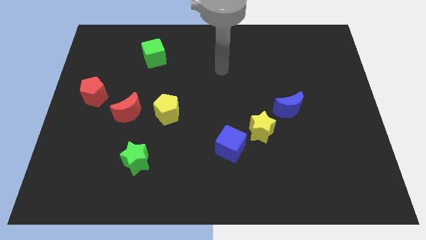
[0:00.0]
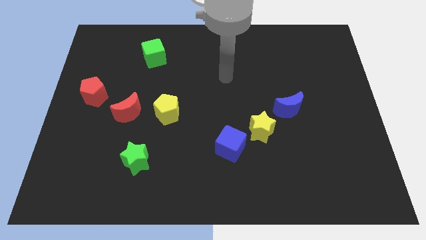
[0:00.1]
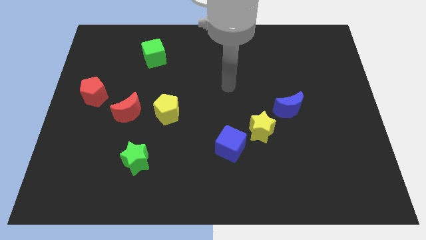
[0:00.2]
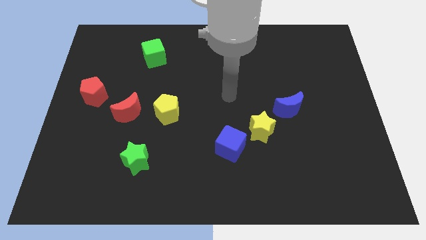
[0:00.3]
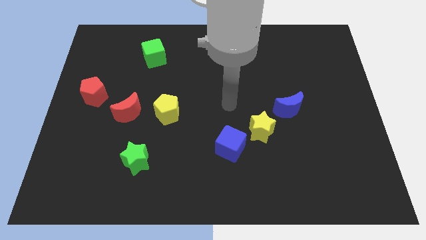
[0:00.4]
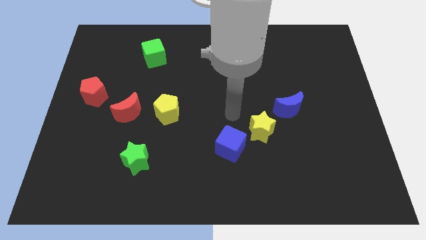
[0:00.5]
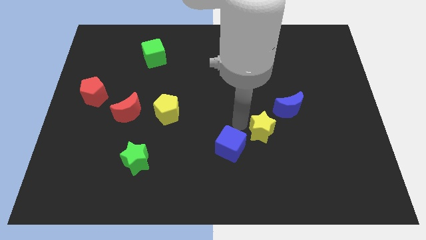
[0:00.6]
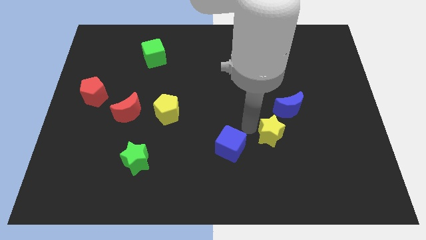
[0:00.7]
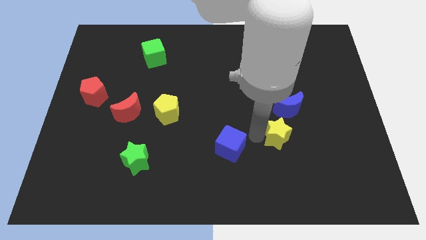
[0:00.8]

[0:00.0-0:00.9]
pull the blue cube apart from the yellow star

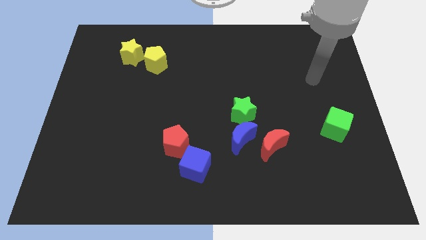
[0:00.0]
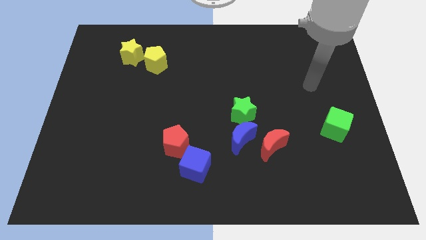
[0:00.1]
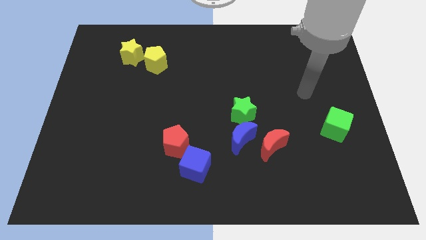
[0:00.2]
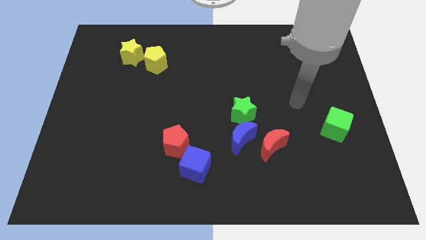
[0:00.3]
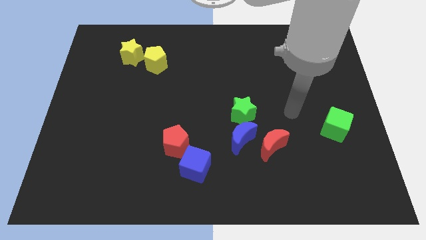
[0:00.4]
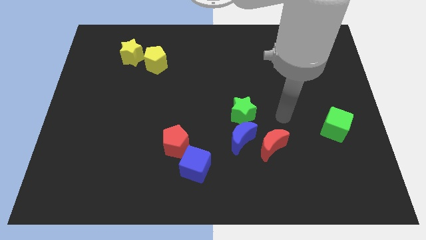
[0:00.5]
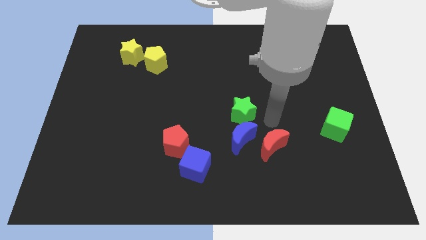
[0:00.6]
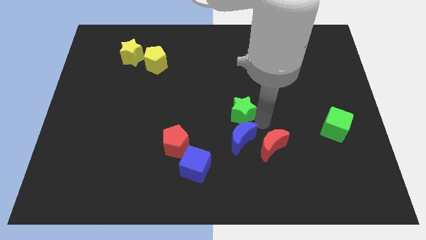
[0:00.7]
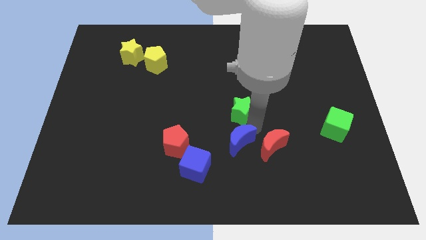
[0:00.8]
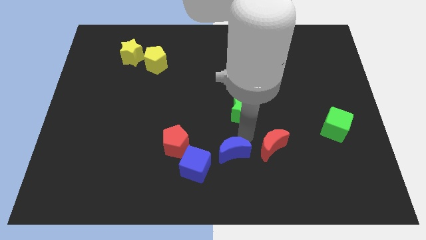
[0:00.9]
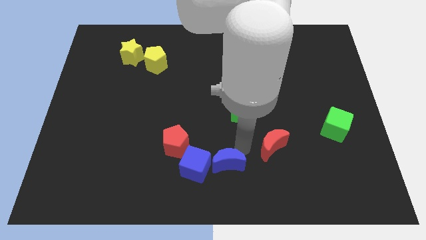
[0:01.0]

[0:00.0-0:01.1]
move the red moon away from the blue moon

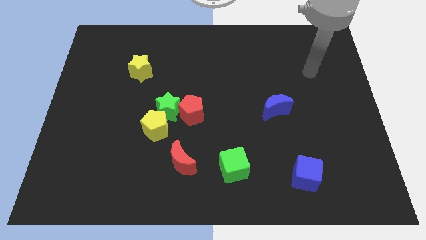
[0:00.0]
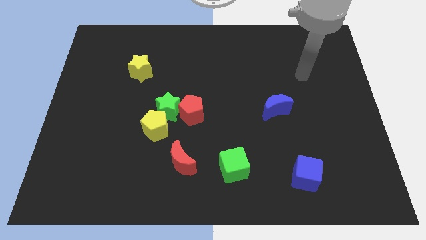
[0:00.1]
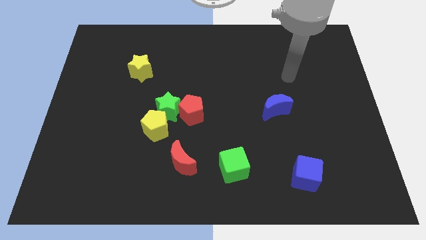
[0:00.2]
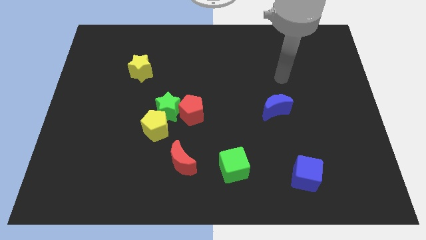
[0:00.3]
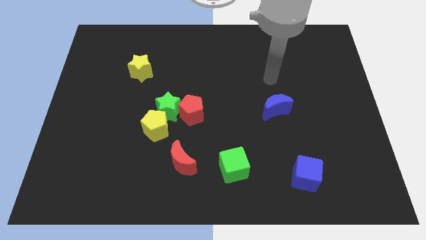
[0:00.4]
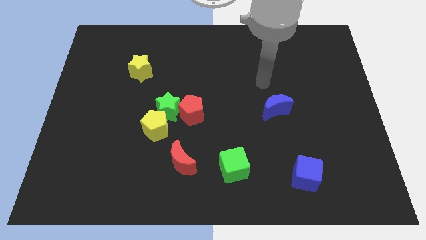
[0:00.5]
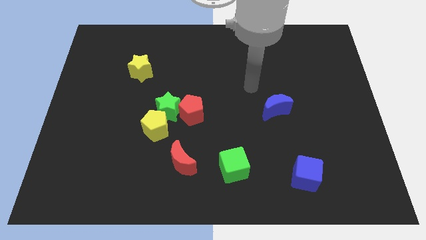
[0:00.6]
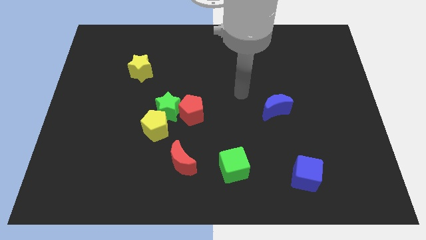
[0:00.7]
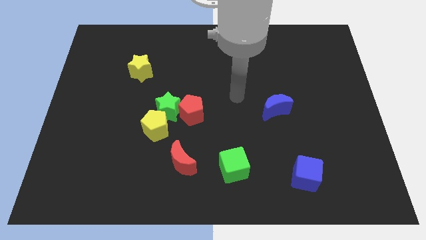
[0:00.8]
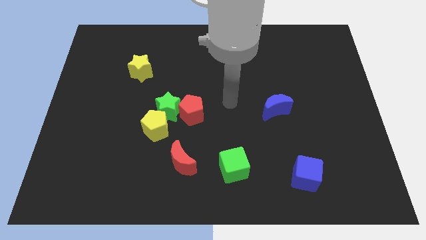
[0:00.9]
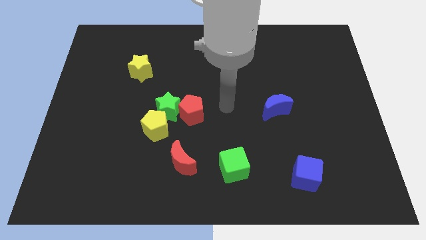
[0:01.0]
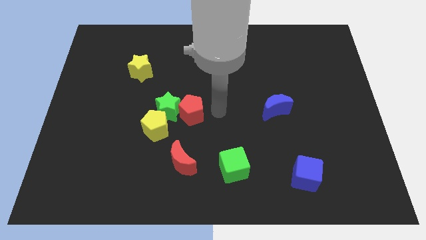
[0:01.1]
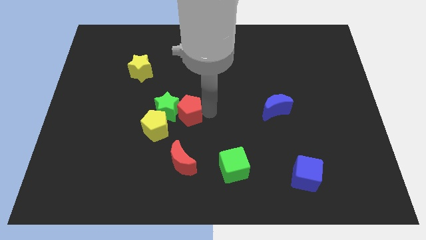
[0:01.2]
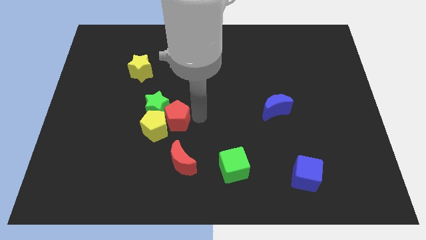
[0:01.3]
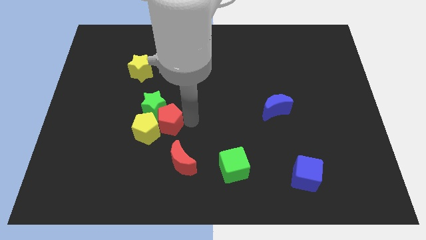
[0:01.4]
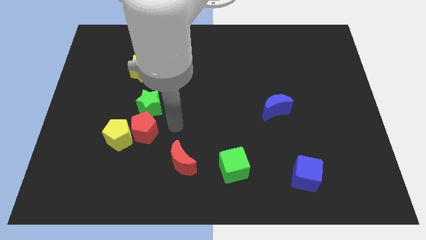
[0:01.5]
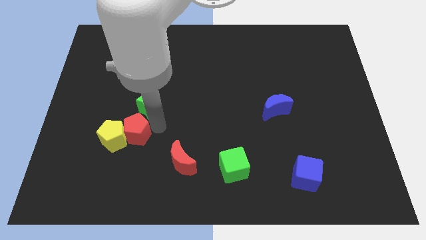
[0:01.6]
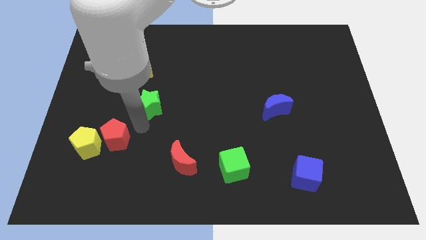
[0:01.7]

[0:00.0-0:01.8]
pull the green star apart from the yellow pentagon and red pentagon

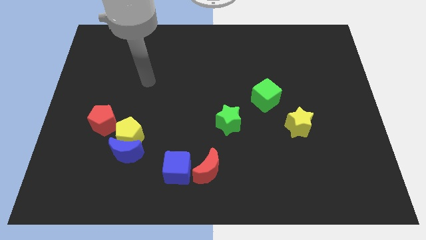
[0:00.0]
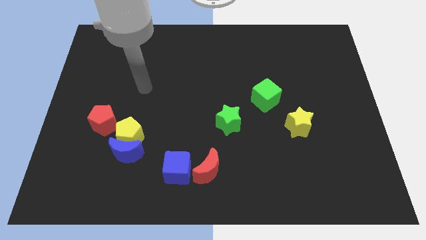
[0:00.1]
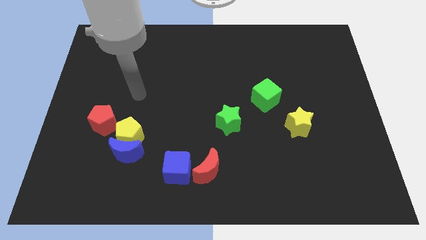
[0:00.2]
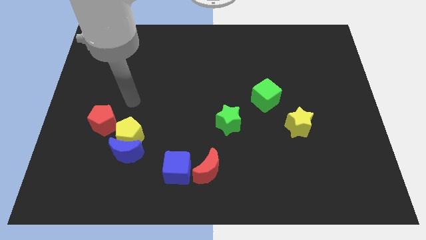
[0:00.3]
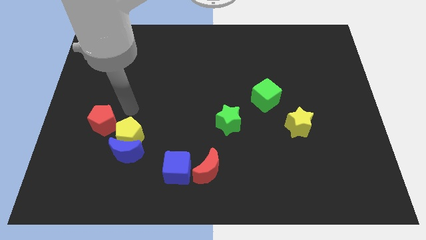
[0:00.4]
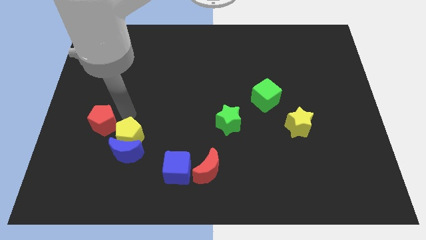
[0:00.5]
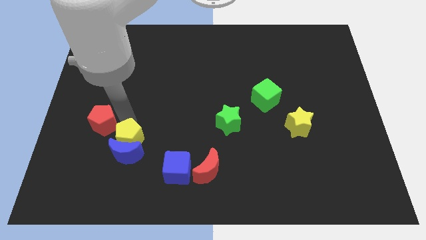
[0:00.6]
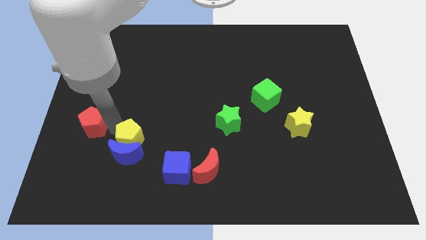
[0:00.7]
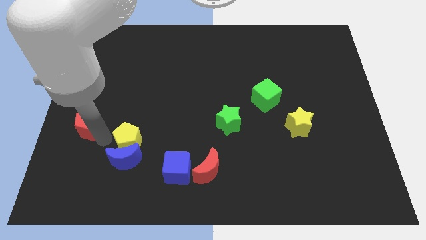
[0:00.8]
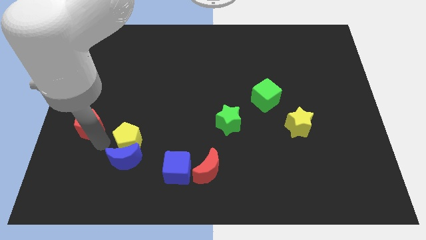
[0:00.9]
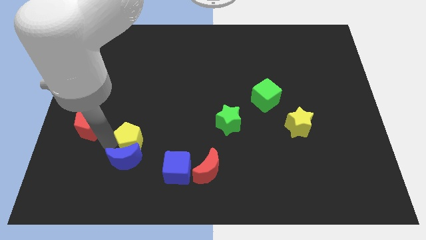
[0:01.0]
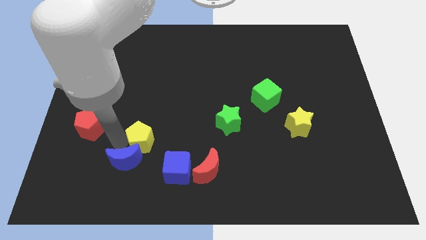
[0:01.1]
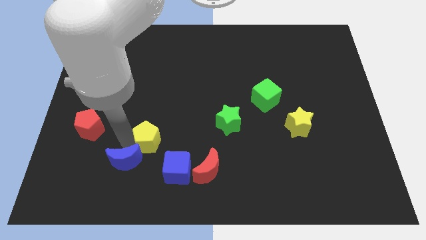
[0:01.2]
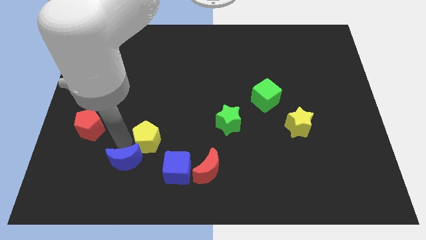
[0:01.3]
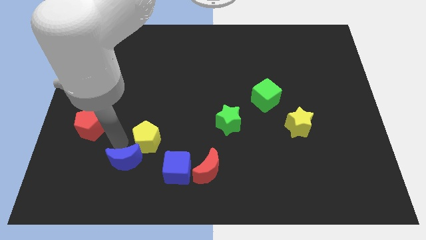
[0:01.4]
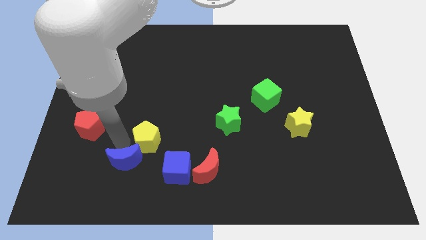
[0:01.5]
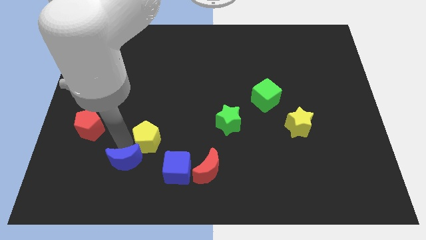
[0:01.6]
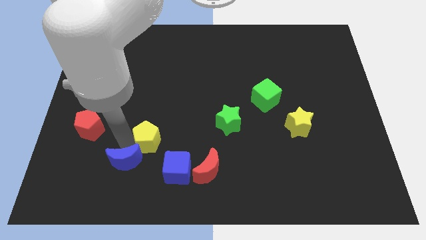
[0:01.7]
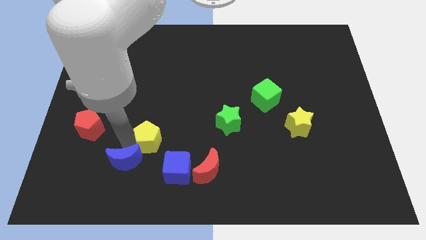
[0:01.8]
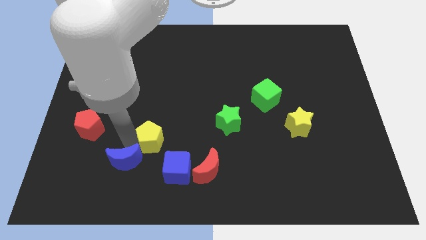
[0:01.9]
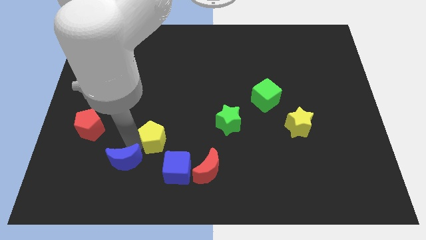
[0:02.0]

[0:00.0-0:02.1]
pull the yellow pentagon apart from the blue moon and red pentagon

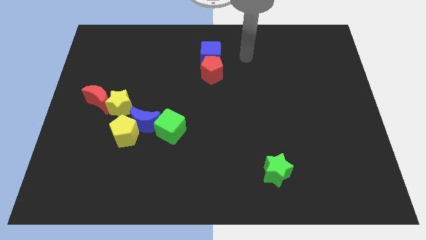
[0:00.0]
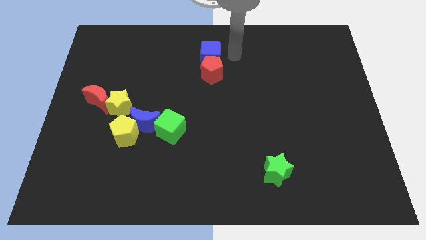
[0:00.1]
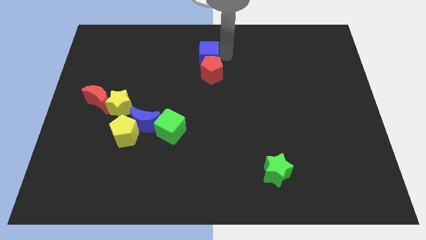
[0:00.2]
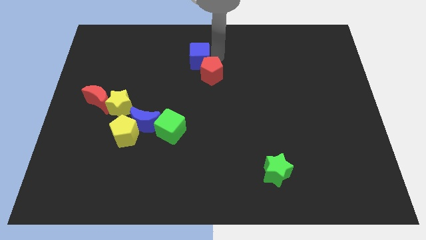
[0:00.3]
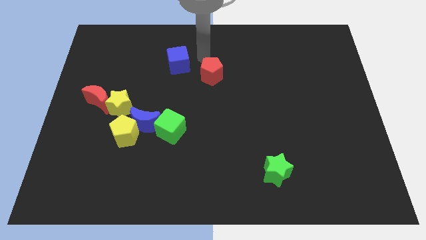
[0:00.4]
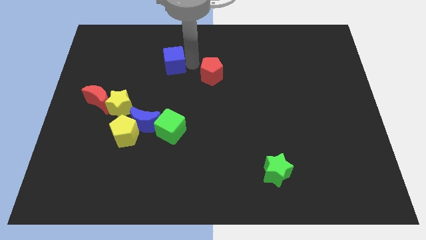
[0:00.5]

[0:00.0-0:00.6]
pull the red pentagon apart from the blue cube

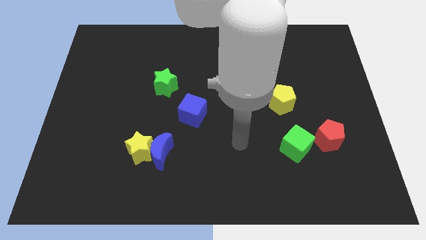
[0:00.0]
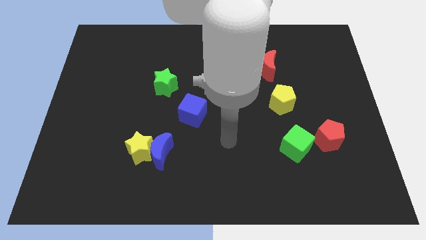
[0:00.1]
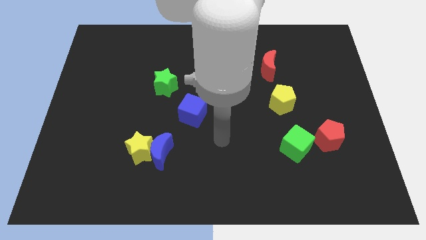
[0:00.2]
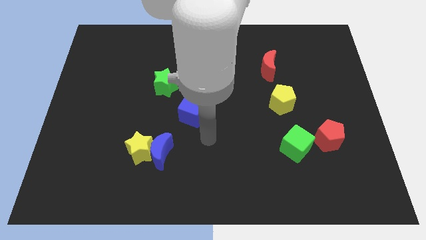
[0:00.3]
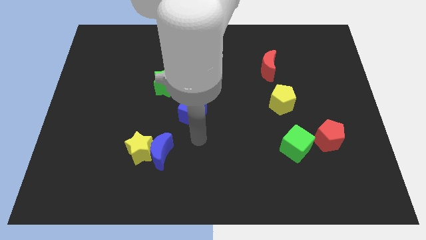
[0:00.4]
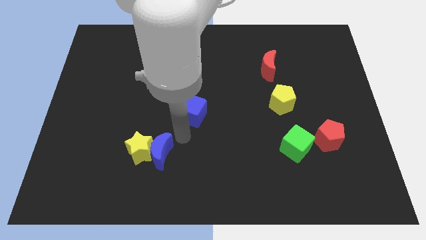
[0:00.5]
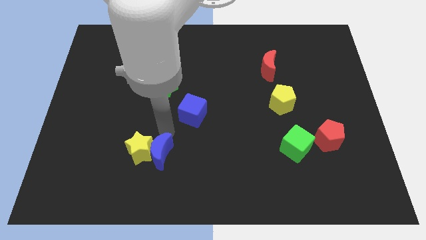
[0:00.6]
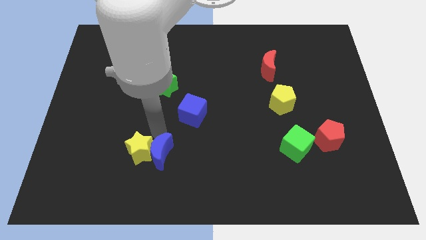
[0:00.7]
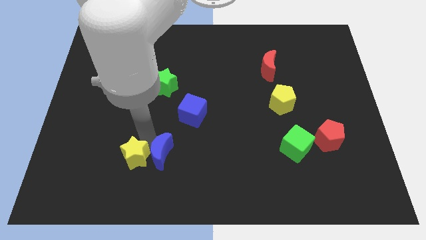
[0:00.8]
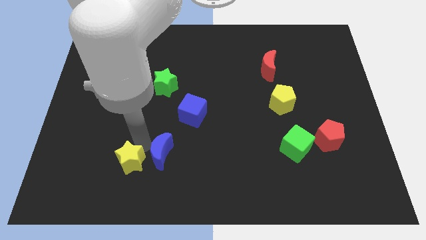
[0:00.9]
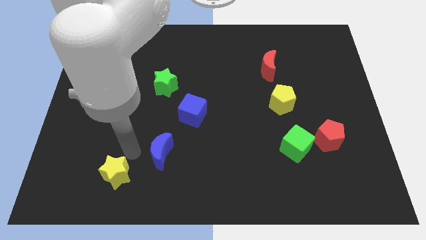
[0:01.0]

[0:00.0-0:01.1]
pull the blue moon apart from the yellow star

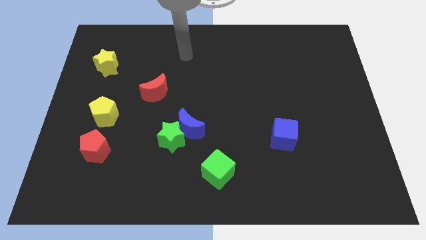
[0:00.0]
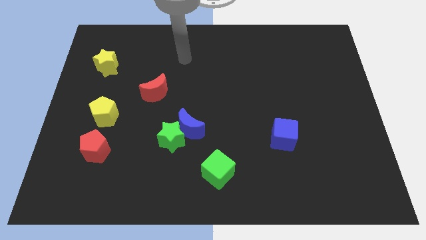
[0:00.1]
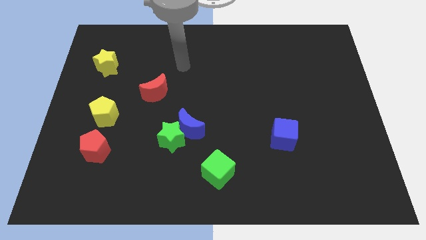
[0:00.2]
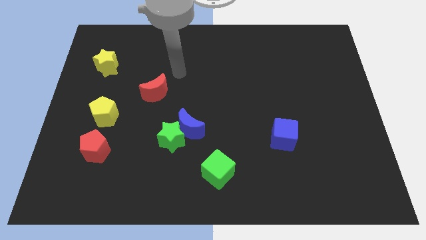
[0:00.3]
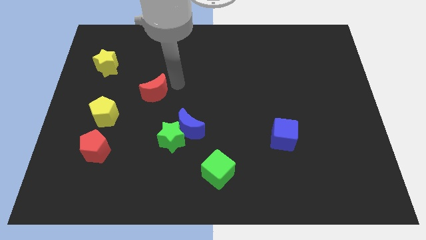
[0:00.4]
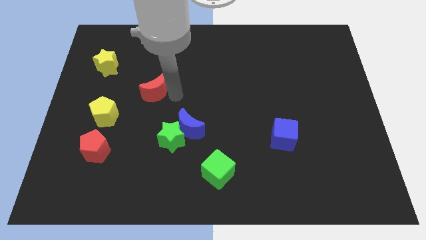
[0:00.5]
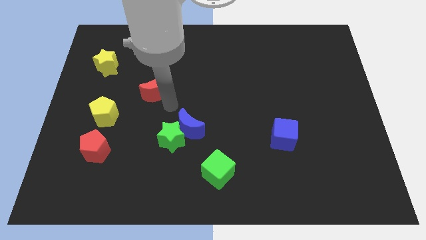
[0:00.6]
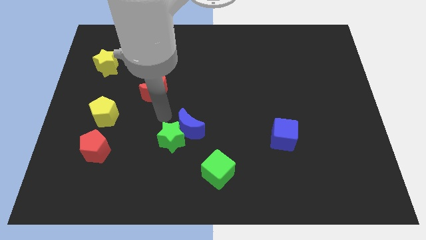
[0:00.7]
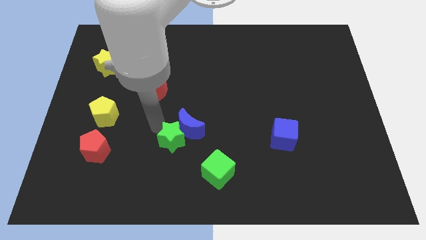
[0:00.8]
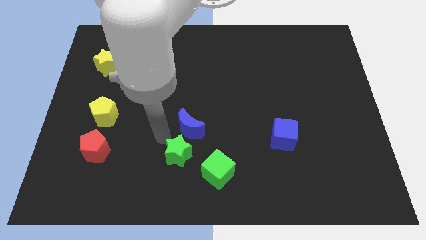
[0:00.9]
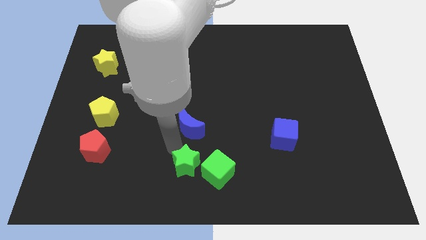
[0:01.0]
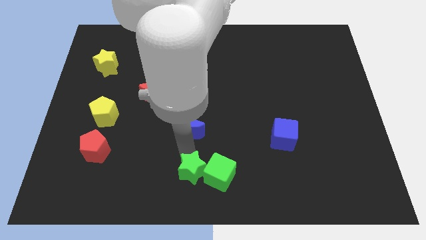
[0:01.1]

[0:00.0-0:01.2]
separate the blue moon from the green star

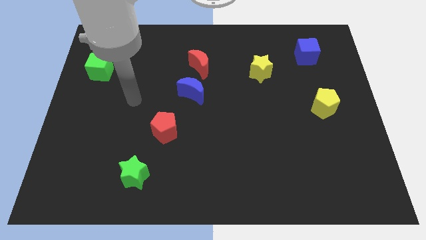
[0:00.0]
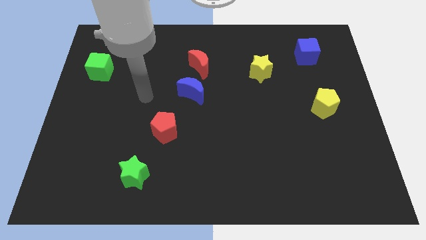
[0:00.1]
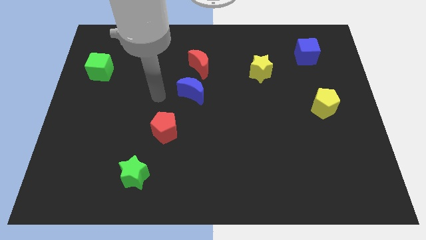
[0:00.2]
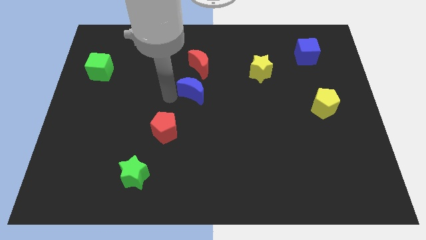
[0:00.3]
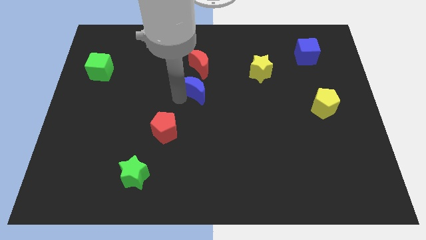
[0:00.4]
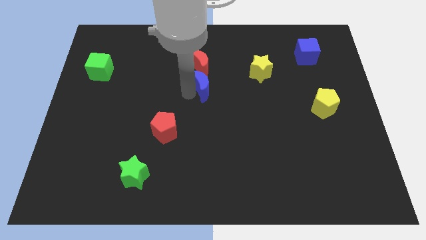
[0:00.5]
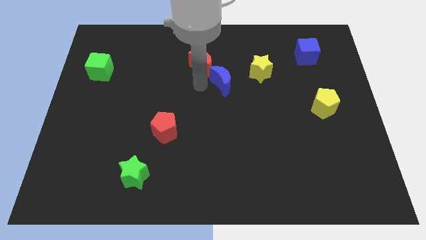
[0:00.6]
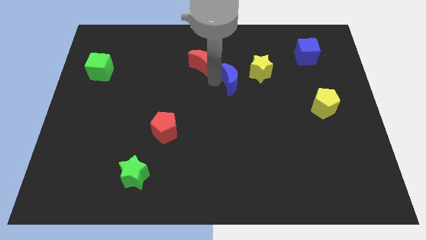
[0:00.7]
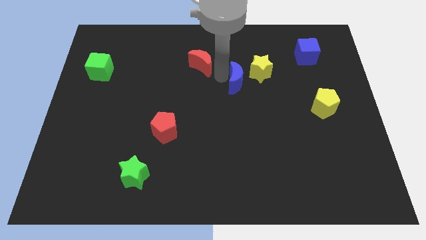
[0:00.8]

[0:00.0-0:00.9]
separate the red moon from the blue moon
